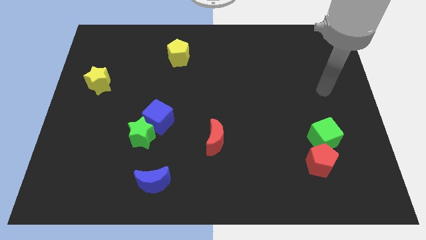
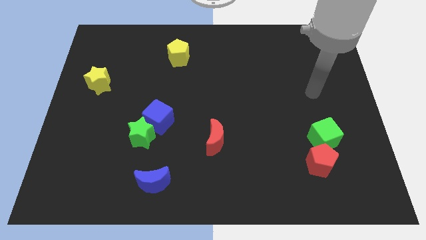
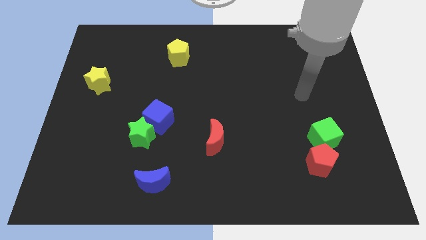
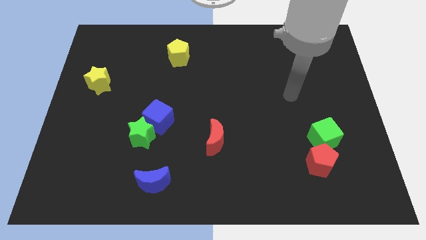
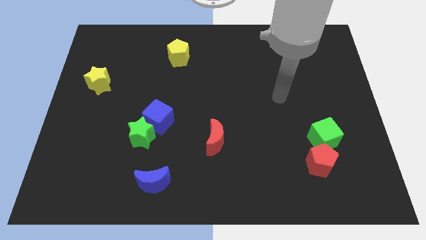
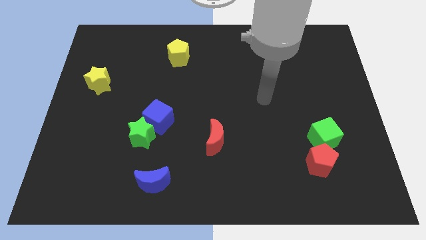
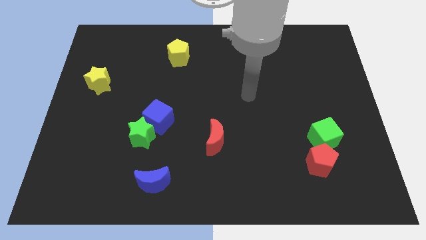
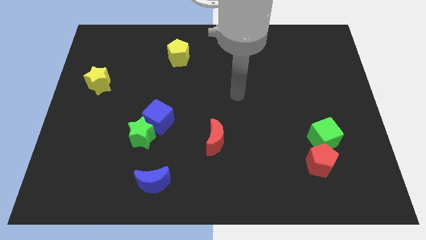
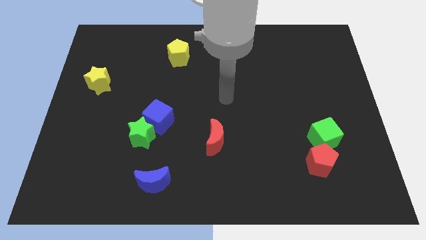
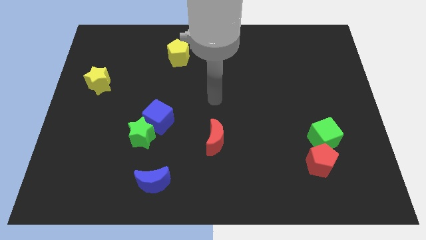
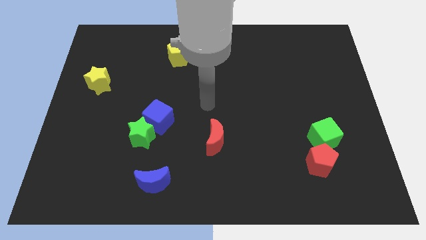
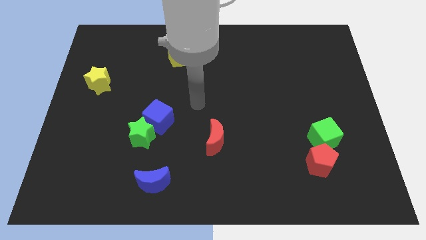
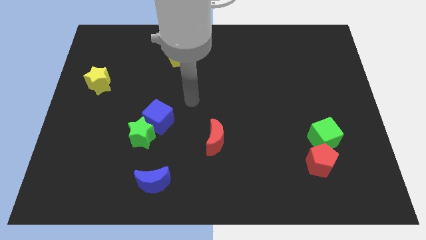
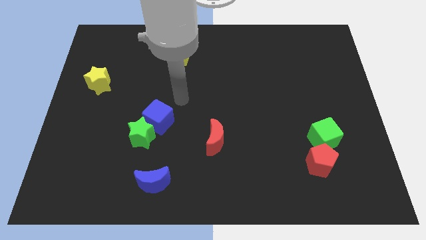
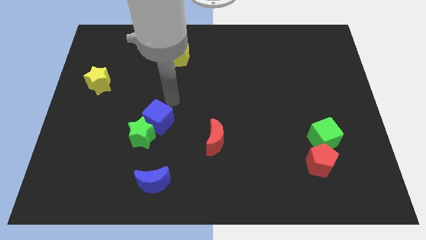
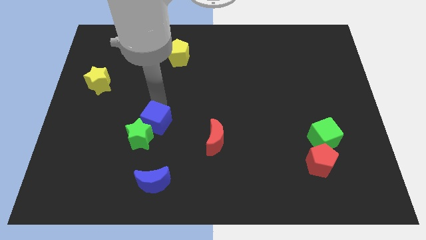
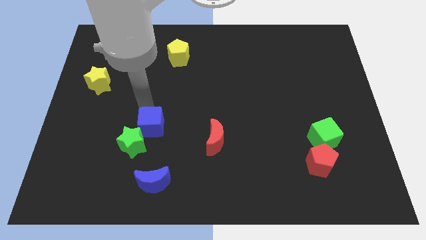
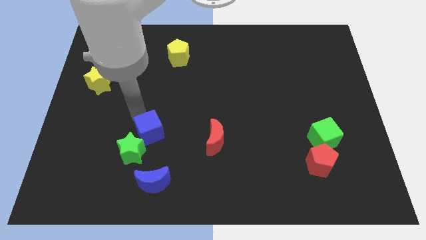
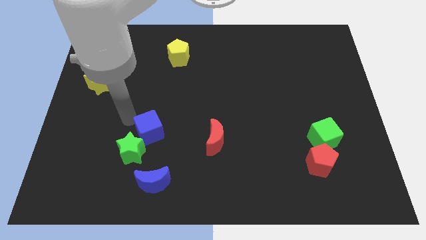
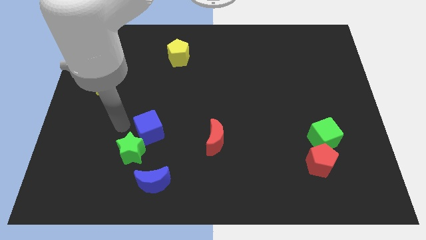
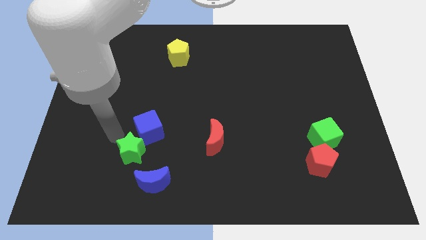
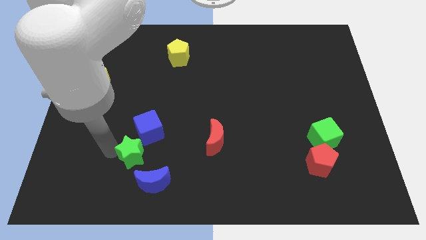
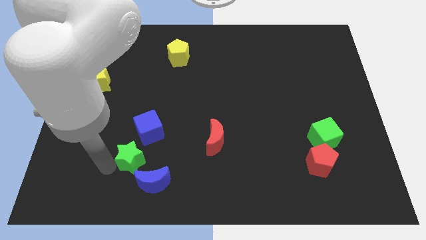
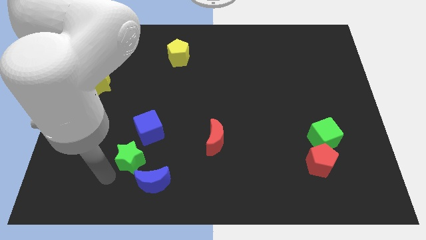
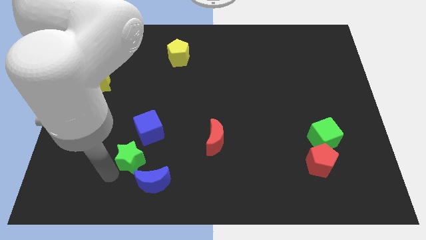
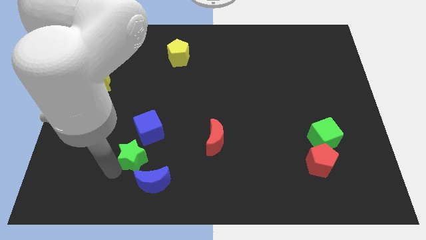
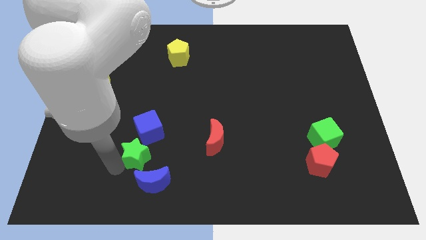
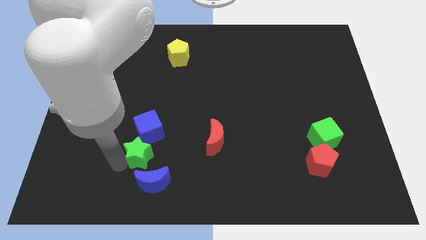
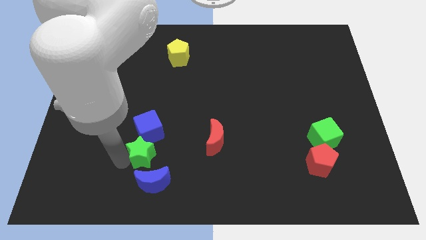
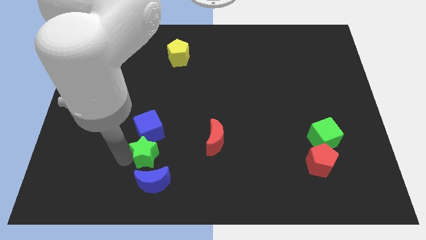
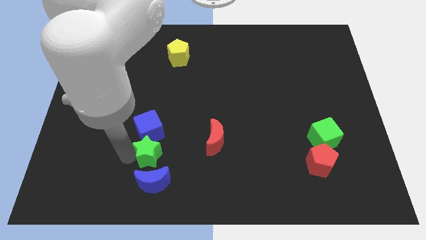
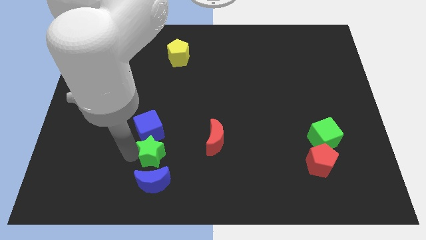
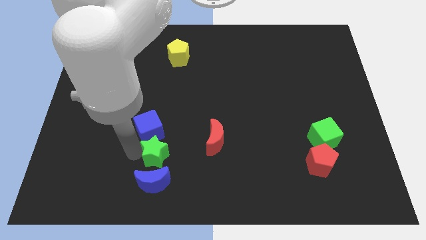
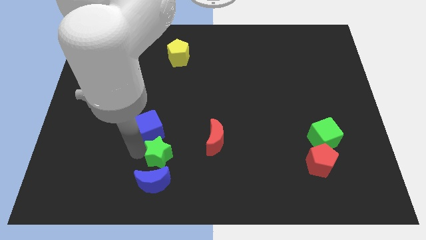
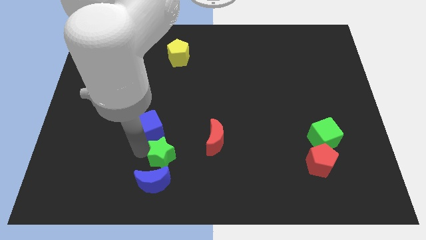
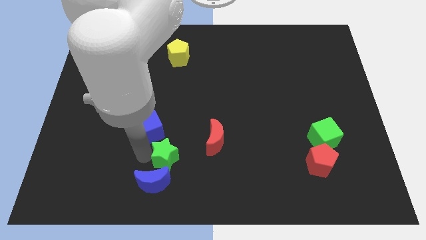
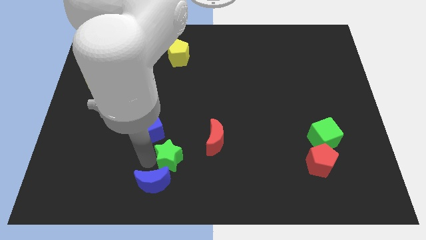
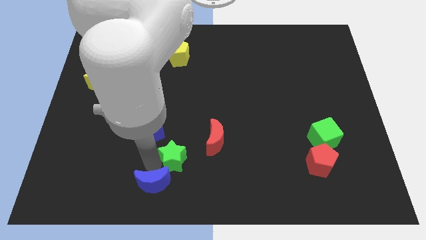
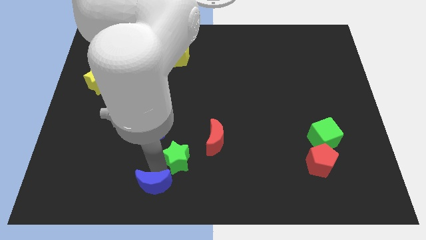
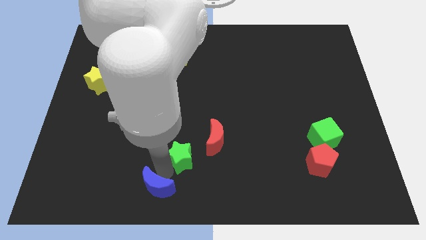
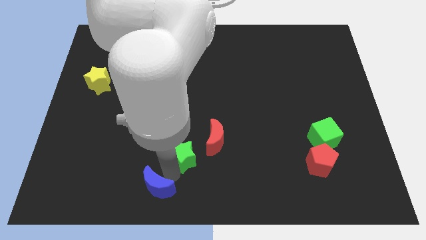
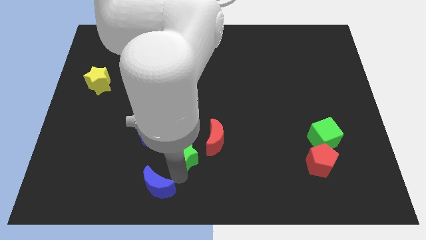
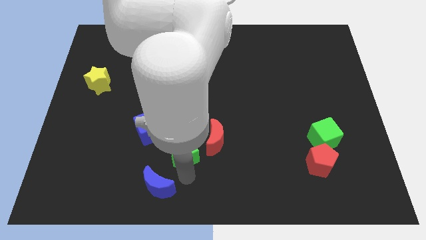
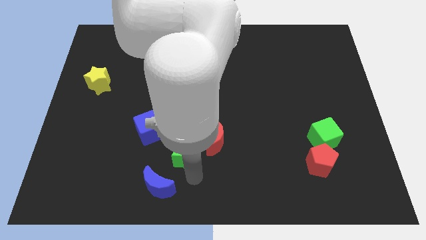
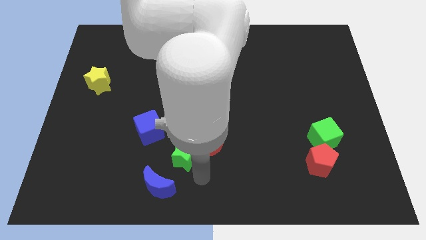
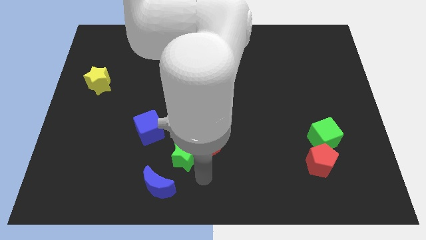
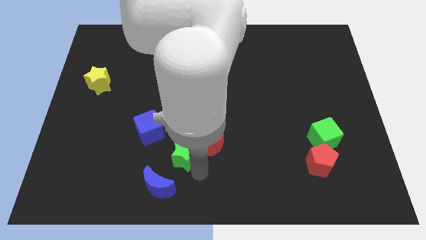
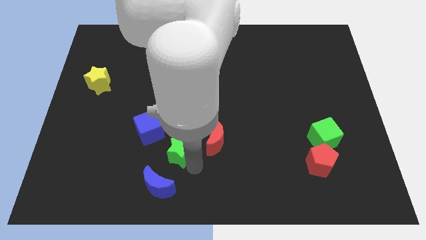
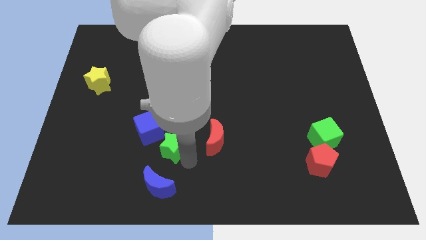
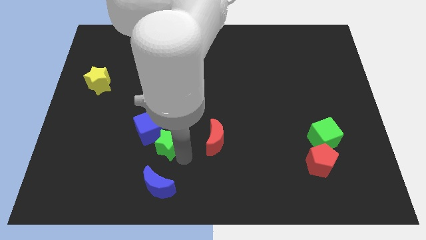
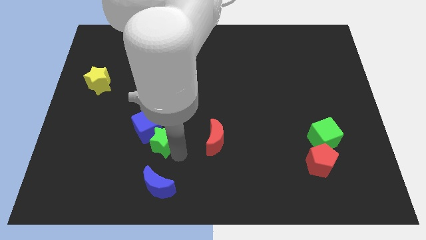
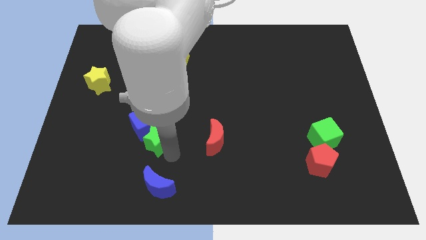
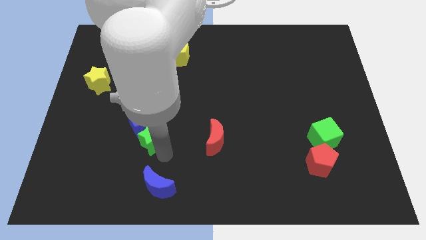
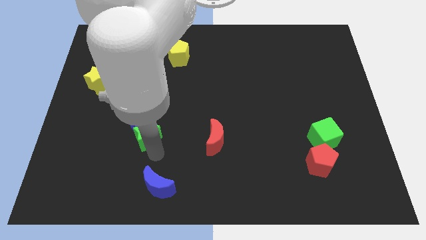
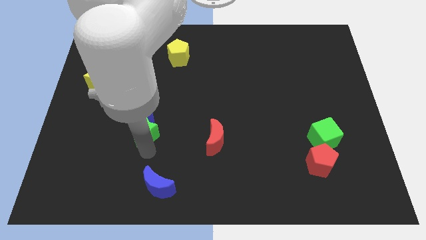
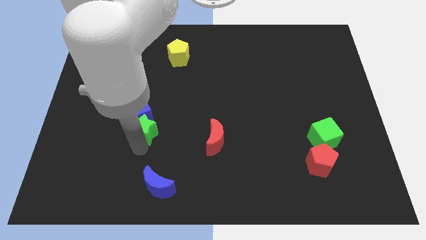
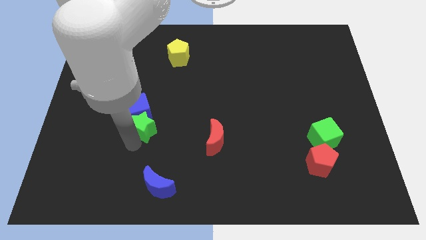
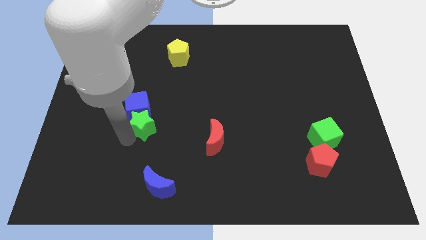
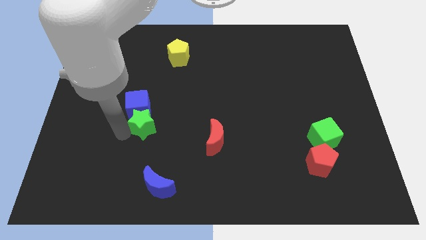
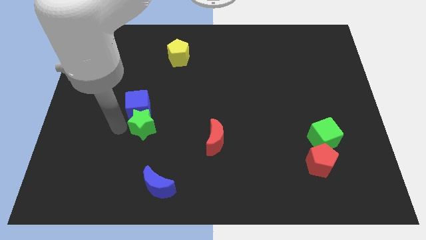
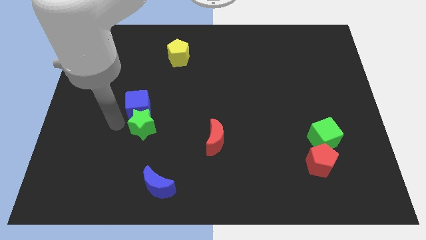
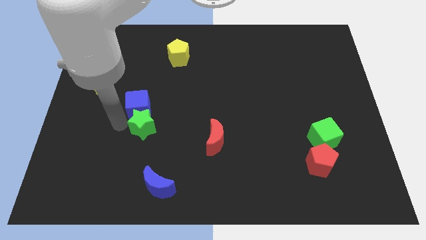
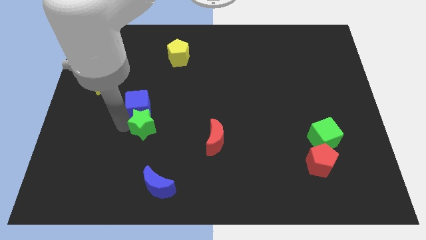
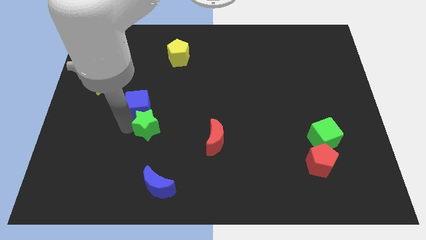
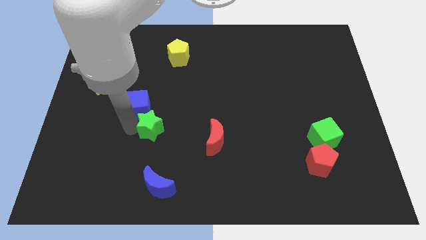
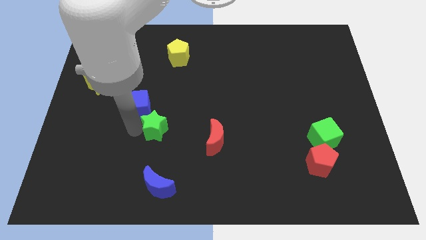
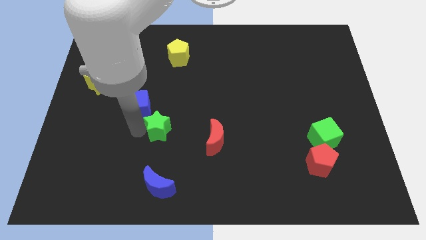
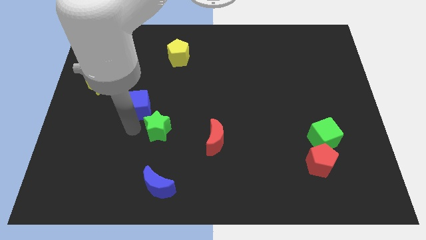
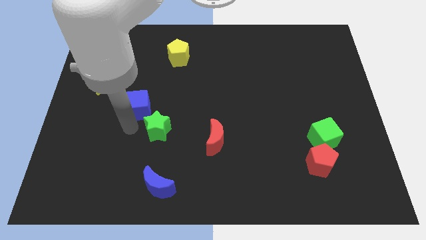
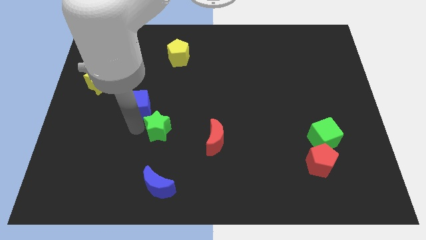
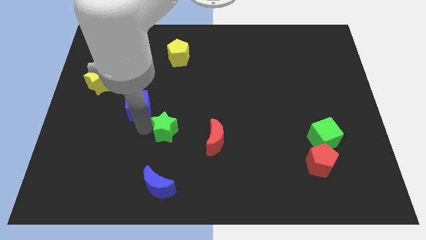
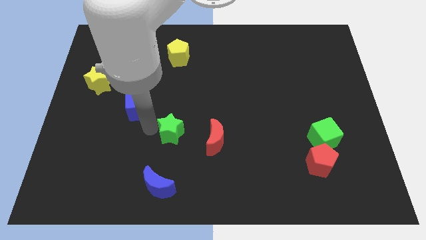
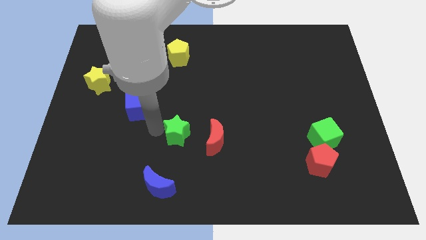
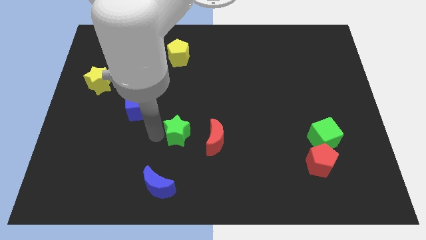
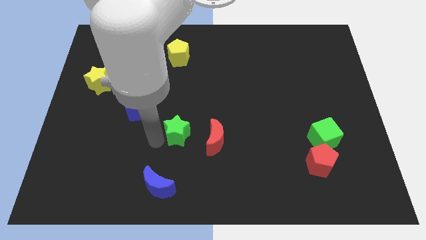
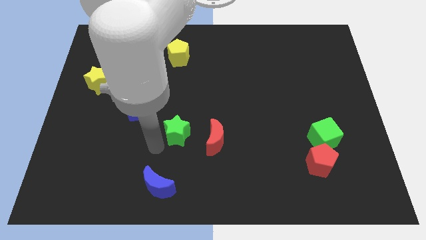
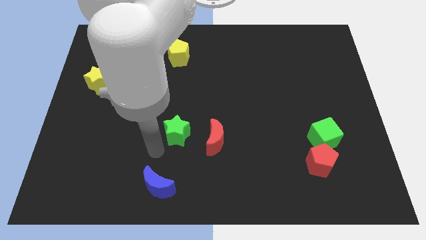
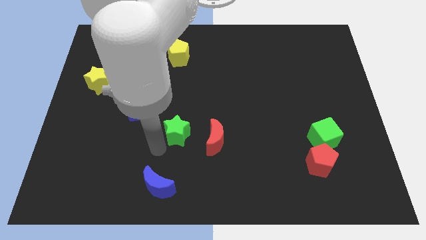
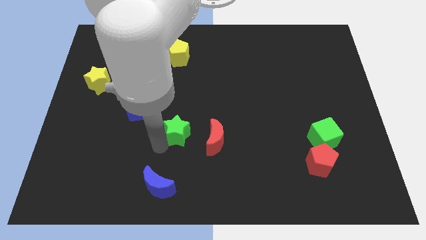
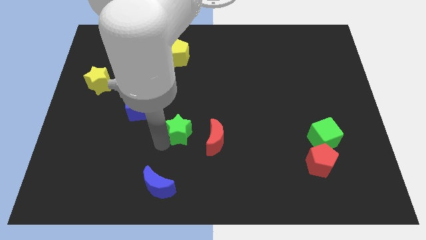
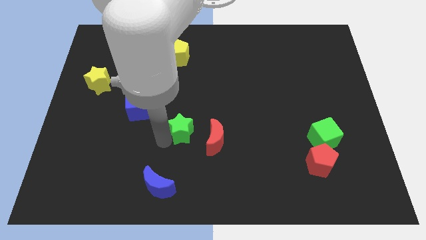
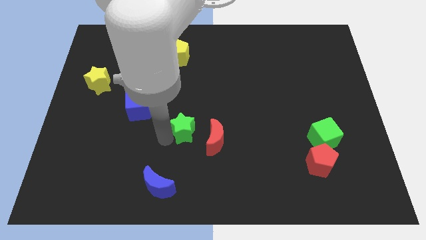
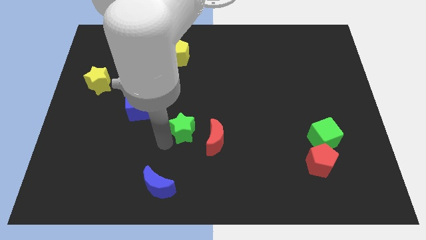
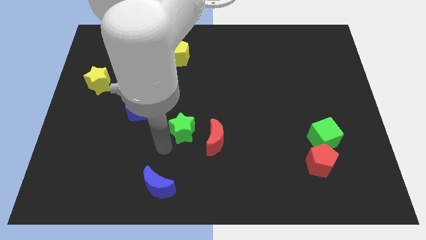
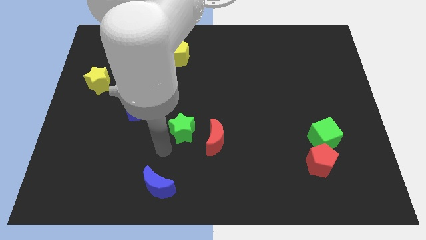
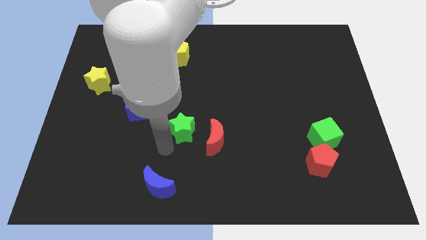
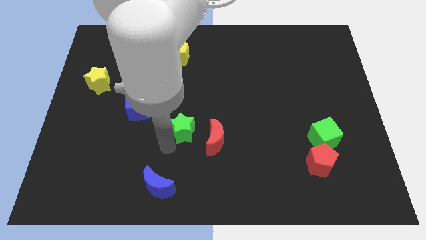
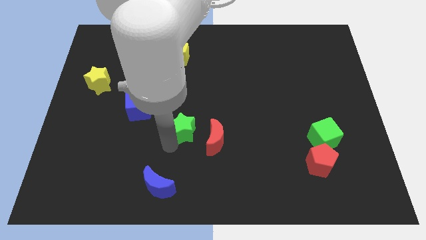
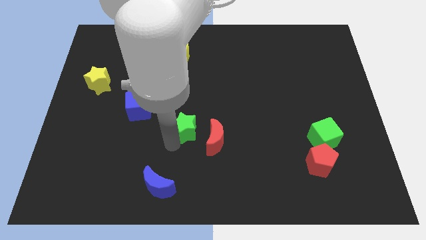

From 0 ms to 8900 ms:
slightly move the green star diagonally upwards and to the right
